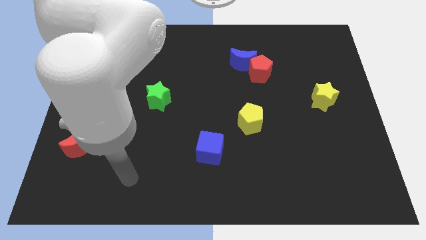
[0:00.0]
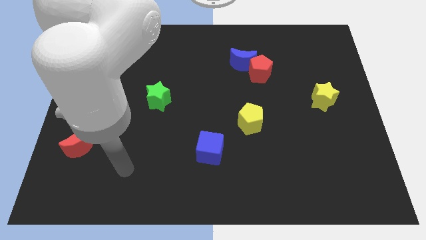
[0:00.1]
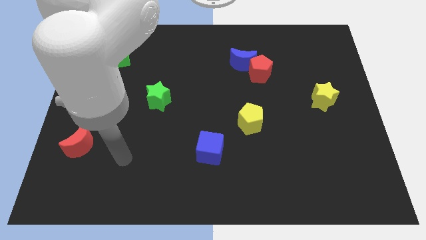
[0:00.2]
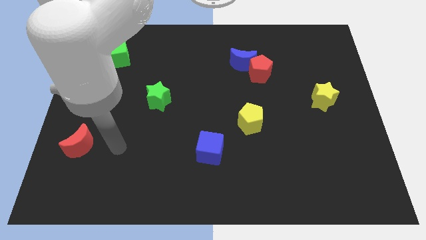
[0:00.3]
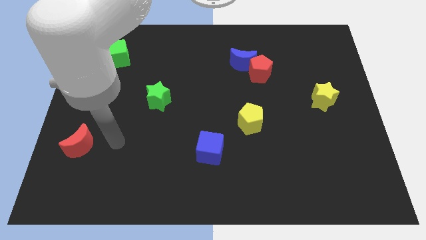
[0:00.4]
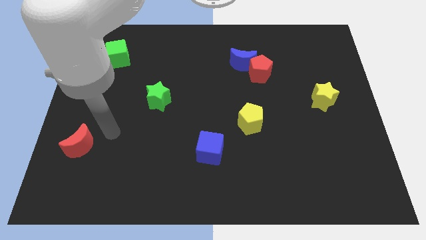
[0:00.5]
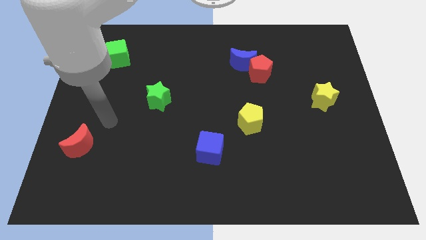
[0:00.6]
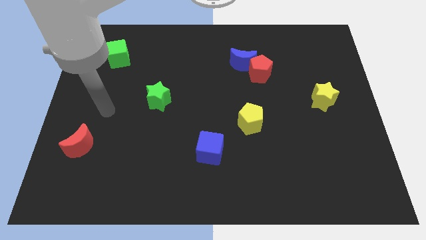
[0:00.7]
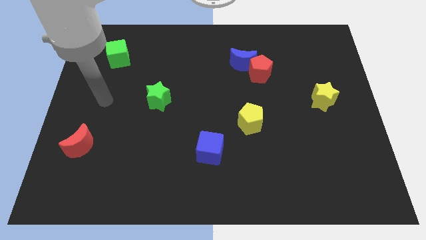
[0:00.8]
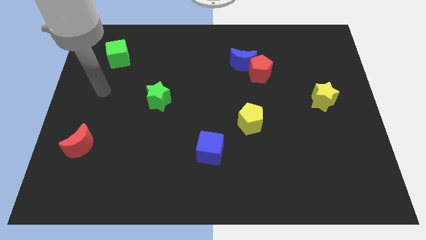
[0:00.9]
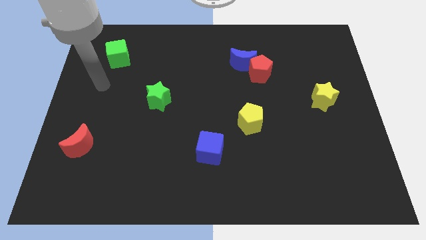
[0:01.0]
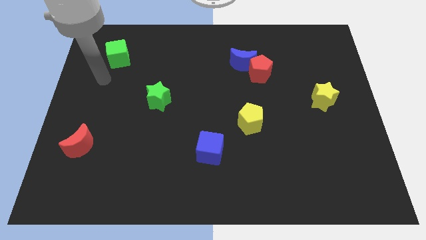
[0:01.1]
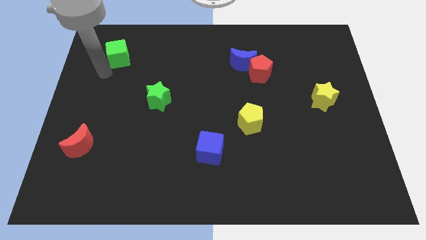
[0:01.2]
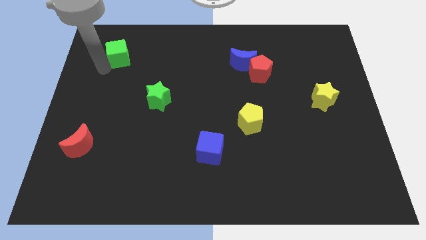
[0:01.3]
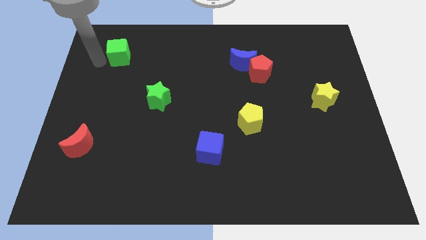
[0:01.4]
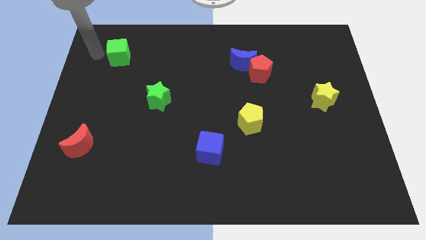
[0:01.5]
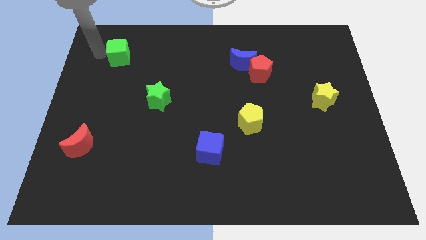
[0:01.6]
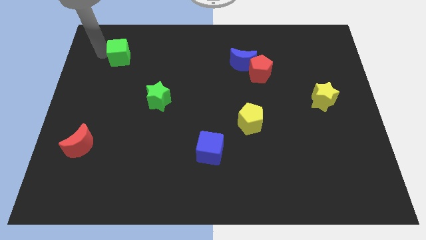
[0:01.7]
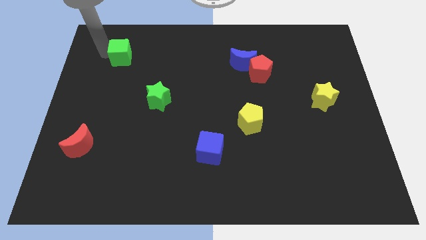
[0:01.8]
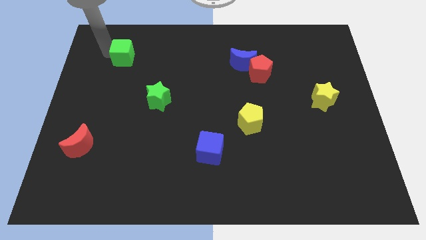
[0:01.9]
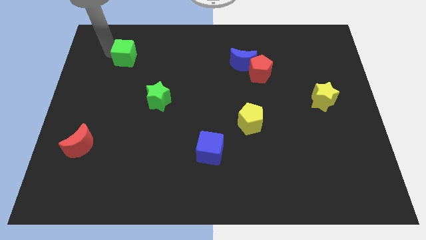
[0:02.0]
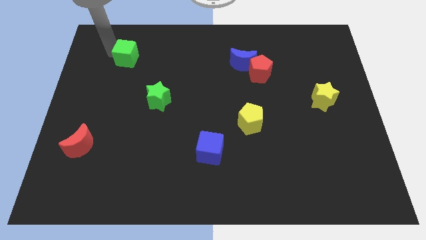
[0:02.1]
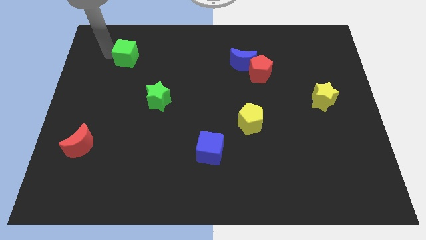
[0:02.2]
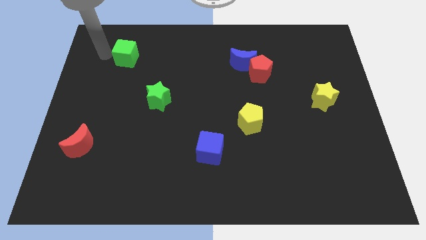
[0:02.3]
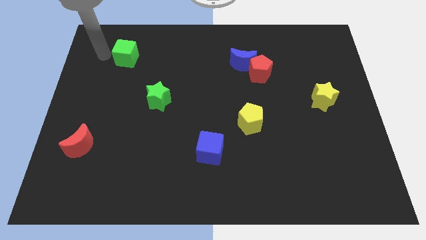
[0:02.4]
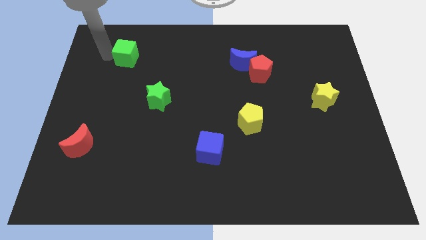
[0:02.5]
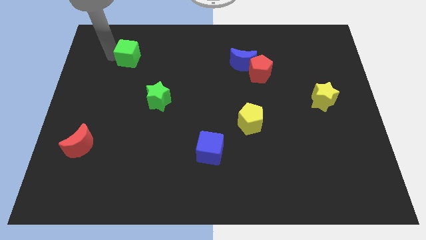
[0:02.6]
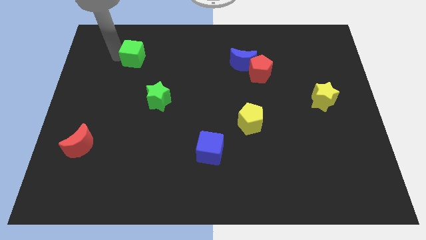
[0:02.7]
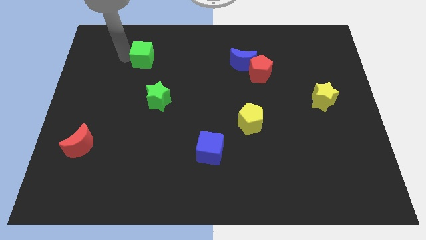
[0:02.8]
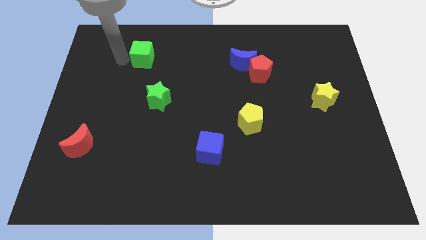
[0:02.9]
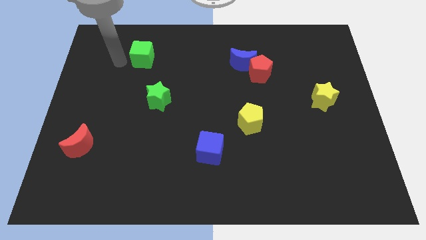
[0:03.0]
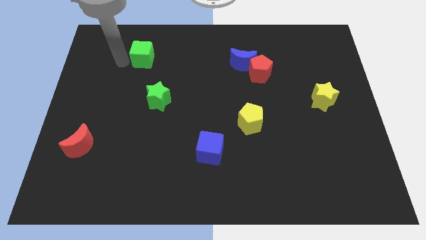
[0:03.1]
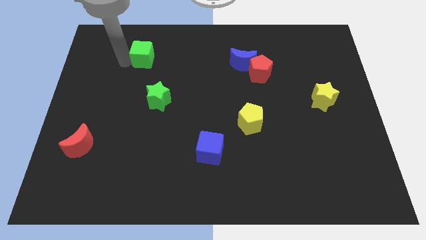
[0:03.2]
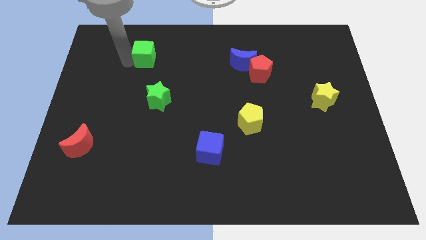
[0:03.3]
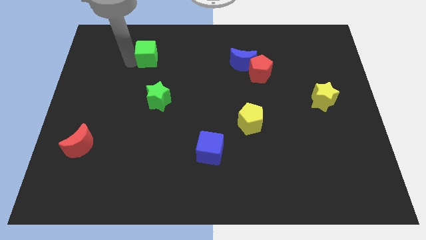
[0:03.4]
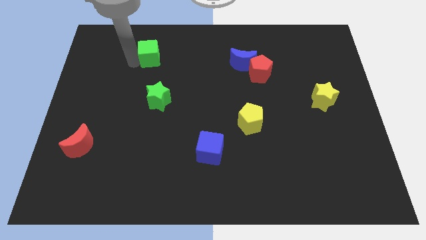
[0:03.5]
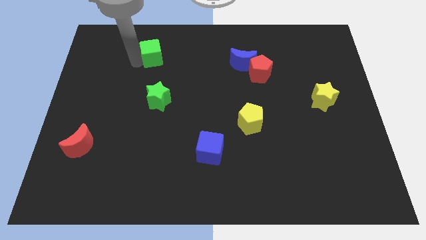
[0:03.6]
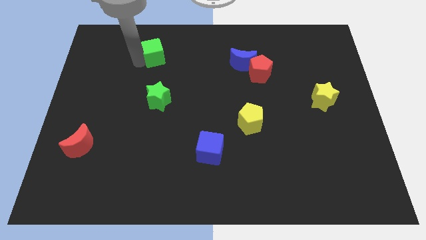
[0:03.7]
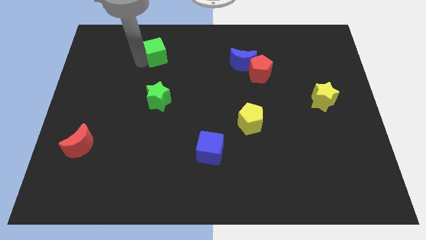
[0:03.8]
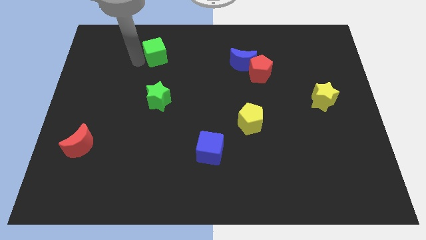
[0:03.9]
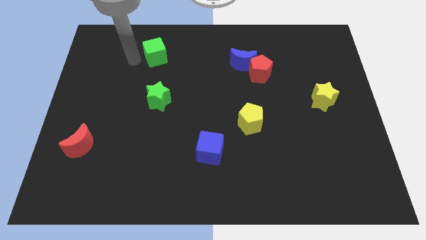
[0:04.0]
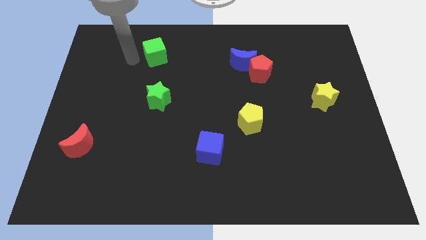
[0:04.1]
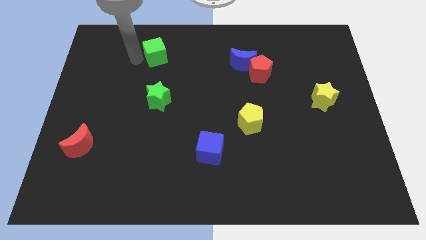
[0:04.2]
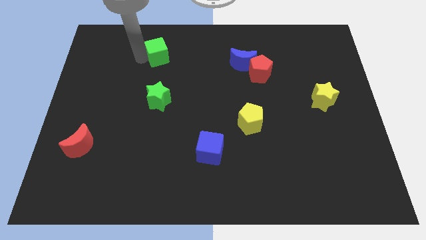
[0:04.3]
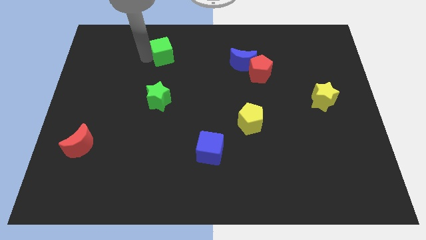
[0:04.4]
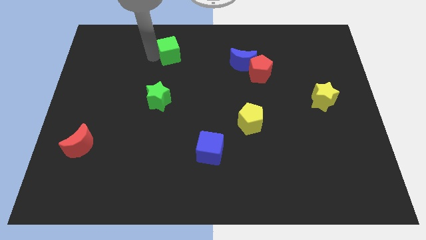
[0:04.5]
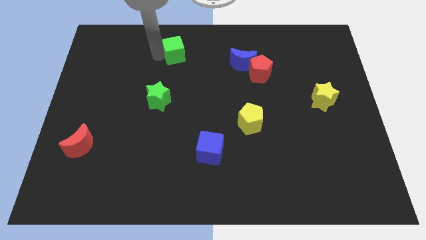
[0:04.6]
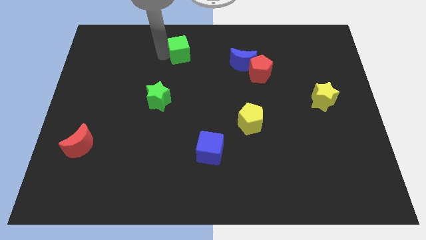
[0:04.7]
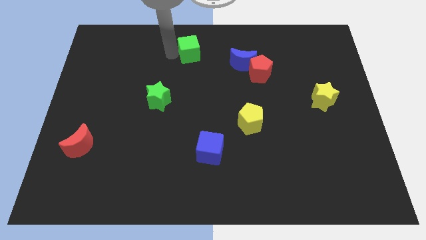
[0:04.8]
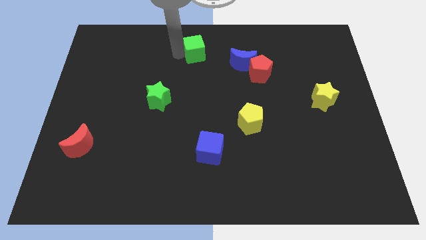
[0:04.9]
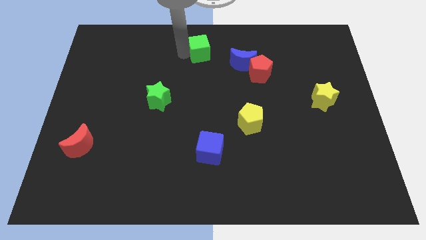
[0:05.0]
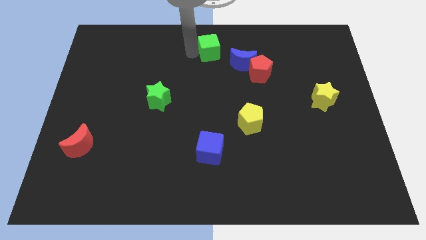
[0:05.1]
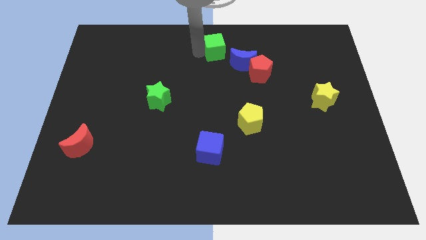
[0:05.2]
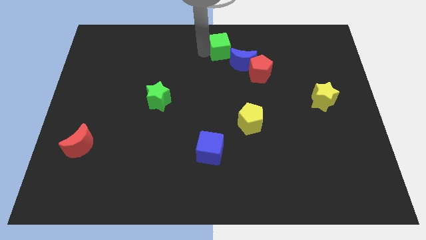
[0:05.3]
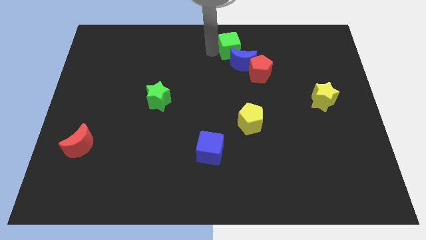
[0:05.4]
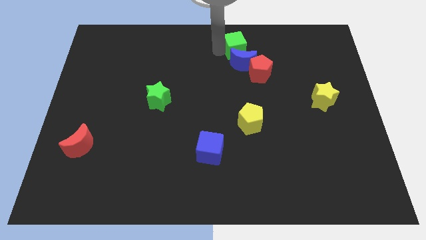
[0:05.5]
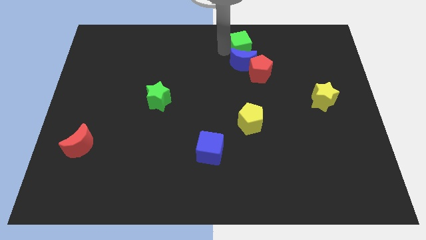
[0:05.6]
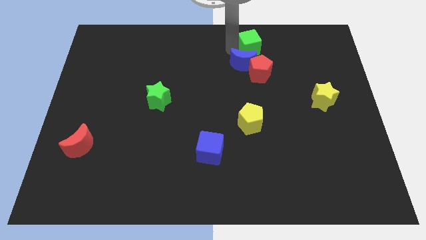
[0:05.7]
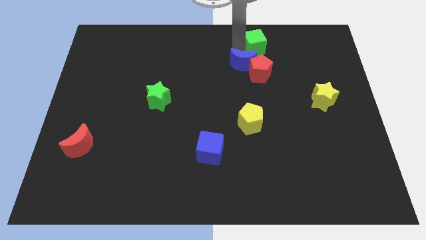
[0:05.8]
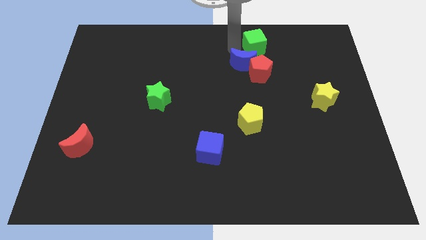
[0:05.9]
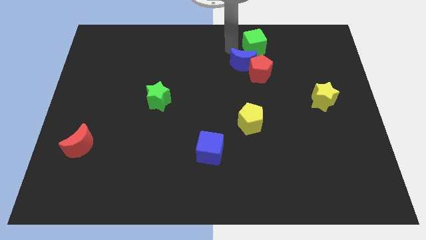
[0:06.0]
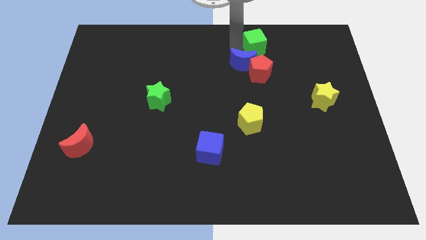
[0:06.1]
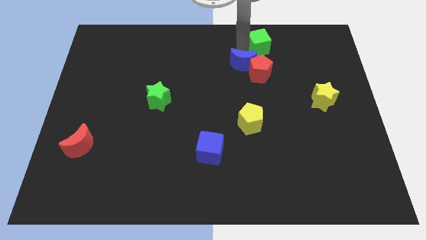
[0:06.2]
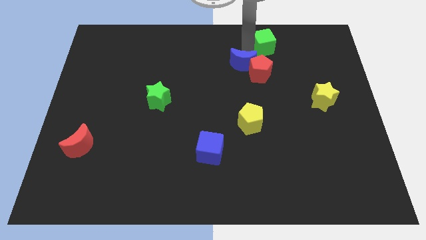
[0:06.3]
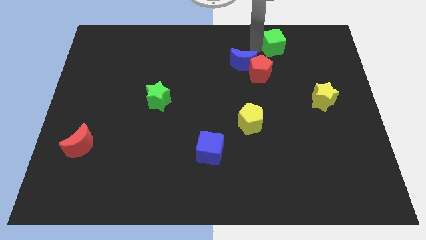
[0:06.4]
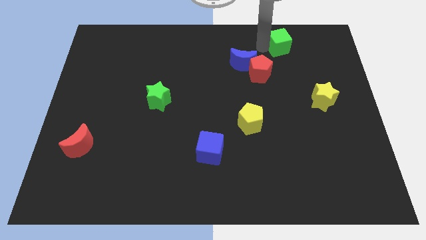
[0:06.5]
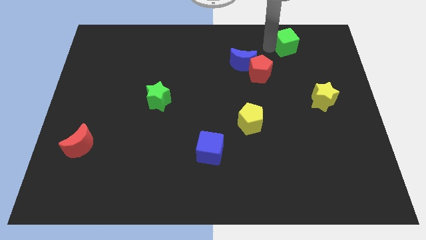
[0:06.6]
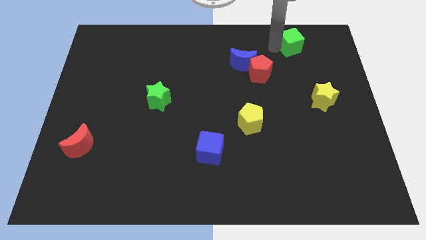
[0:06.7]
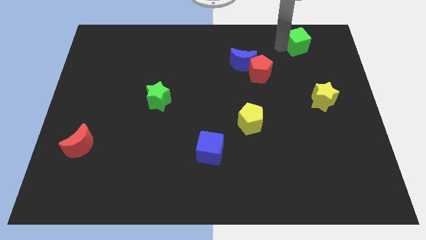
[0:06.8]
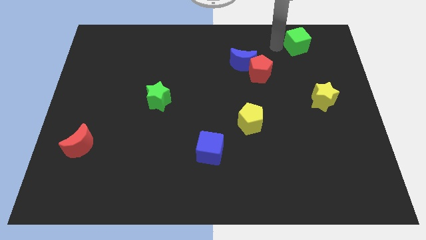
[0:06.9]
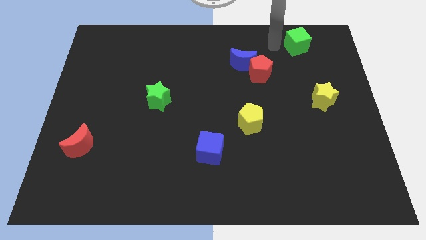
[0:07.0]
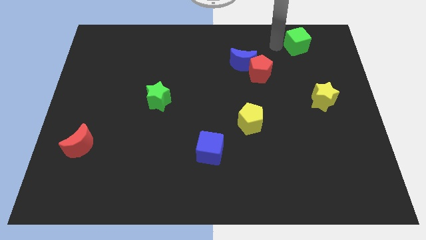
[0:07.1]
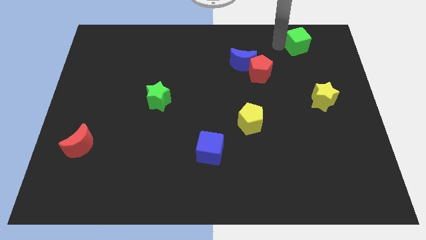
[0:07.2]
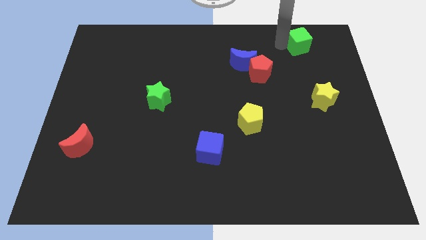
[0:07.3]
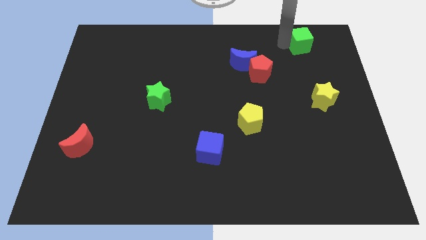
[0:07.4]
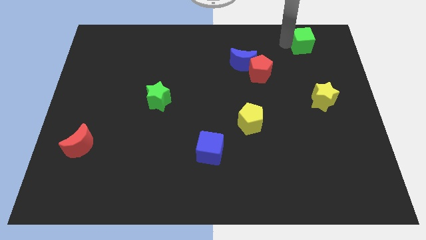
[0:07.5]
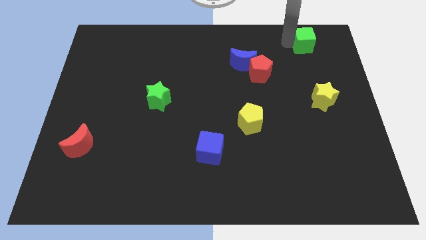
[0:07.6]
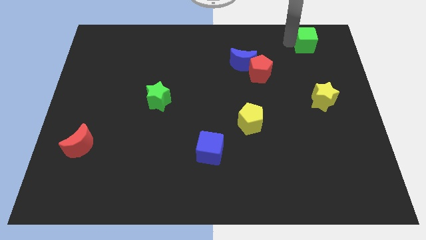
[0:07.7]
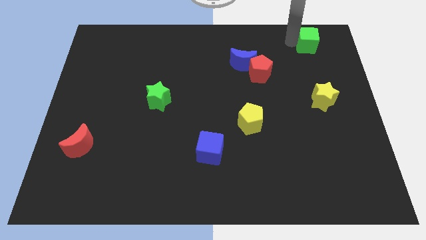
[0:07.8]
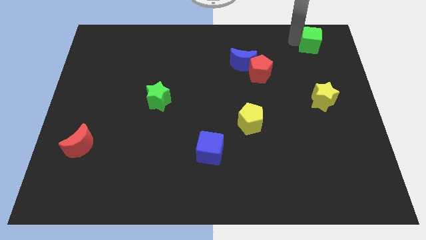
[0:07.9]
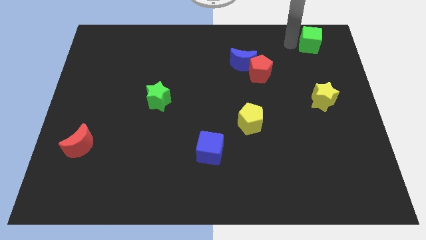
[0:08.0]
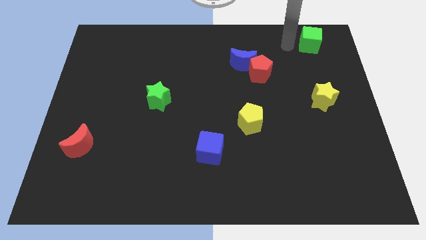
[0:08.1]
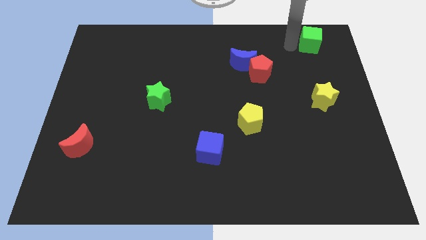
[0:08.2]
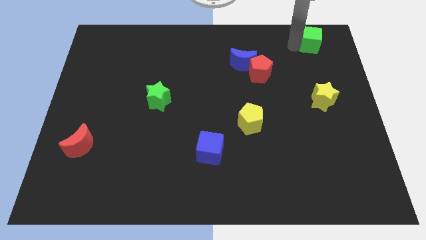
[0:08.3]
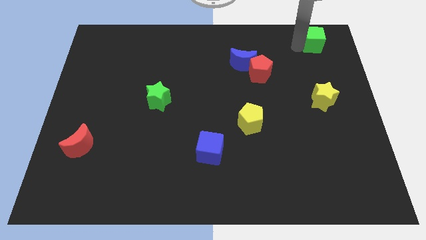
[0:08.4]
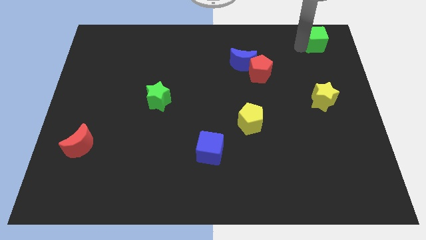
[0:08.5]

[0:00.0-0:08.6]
slide the green cube to the upper right corner
